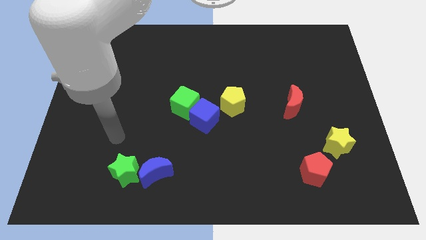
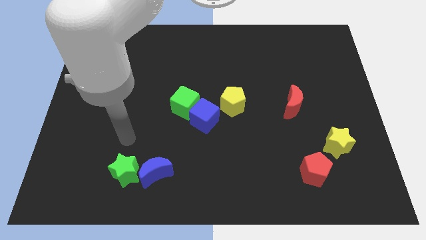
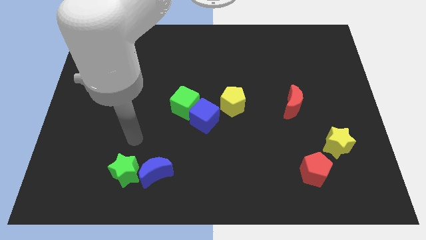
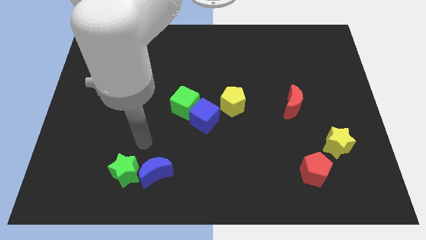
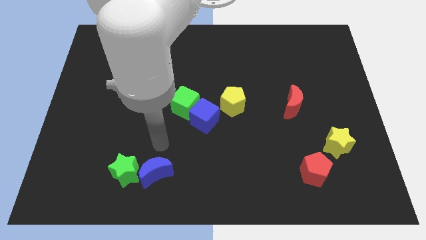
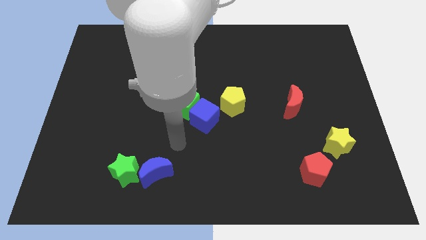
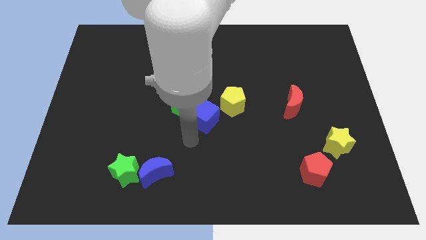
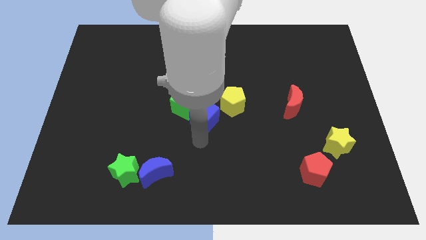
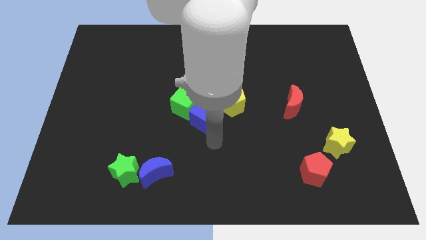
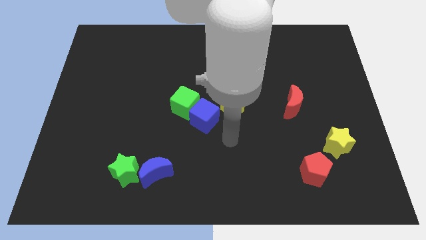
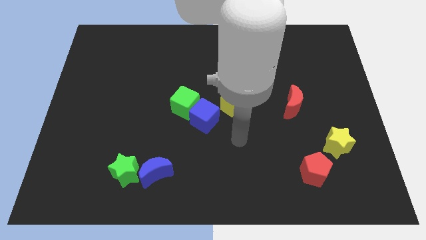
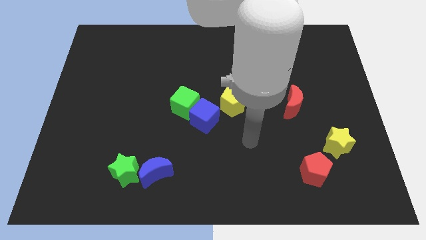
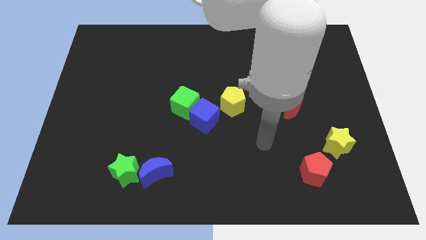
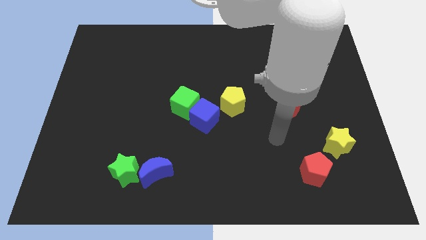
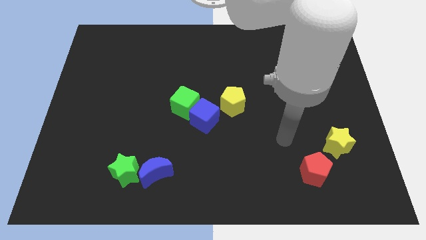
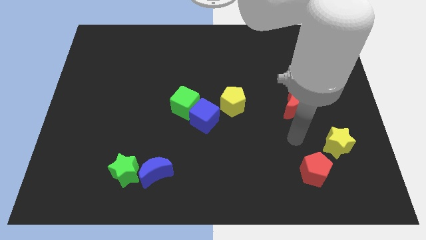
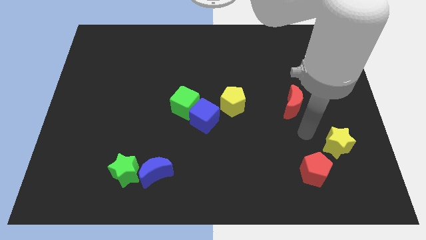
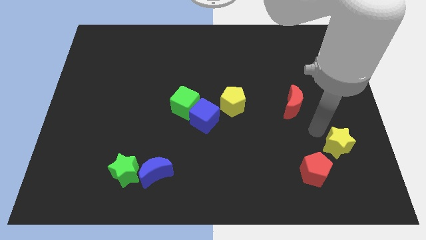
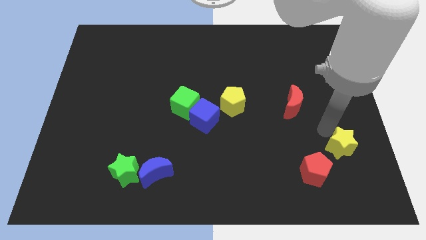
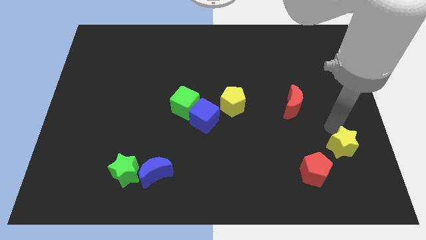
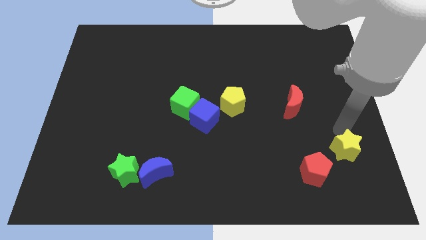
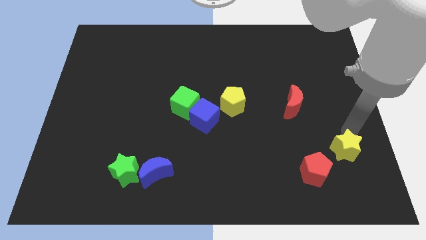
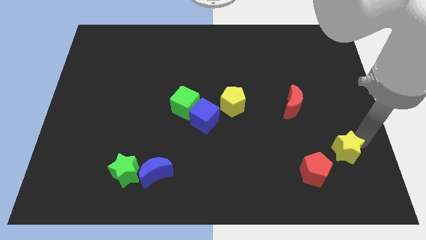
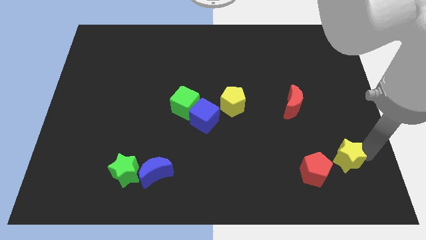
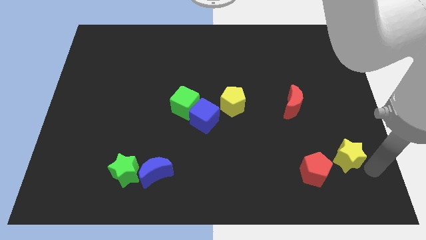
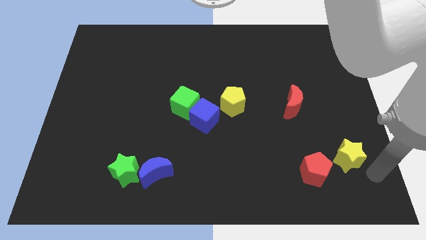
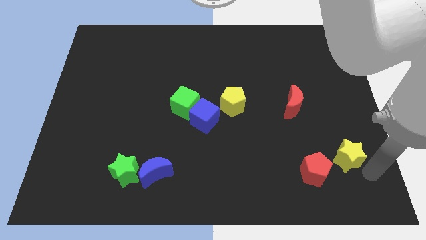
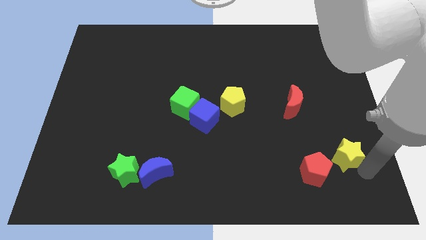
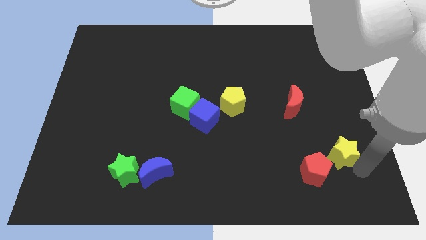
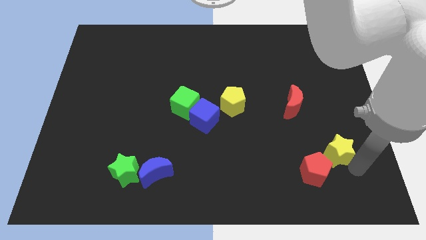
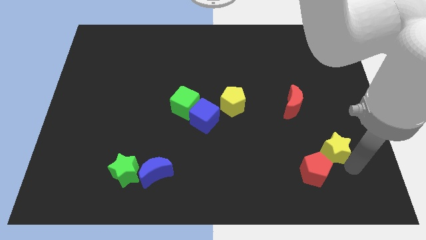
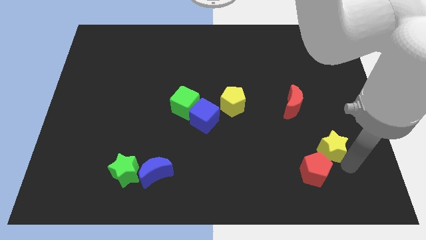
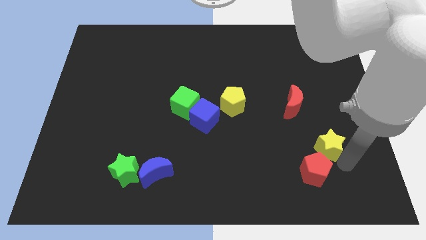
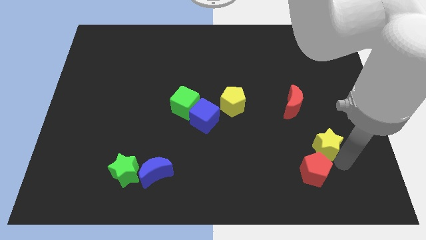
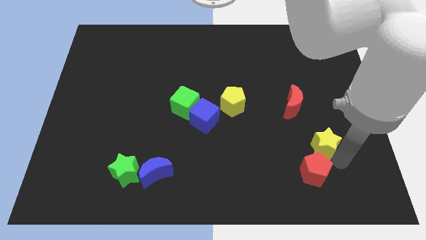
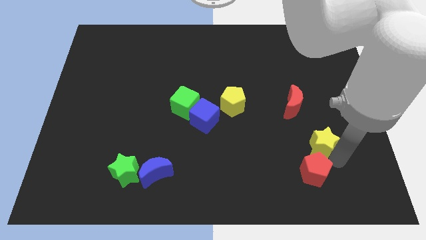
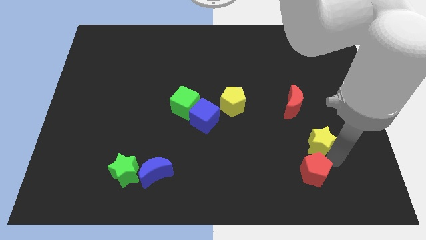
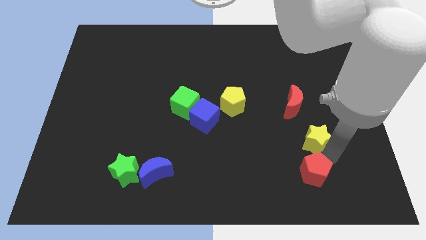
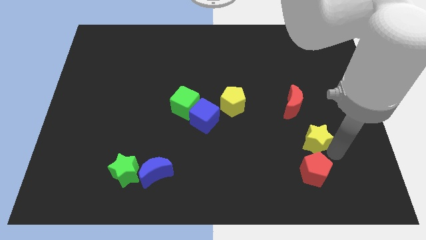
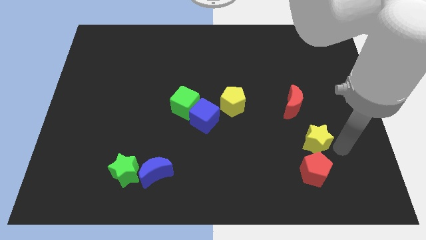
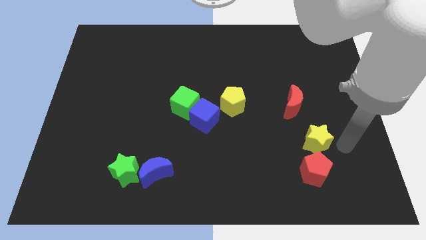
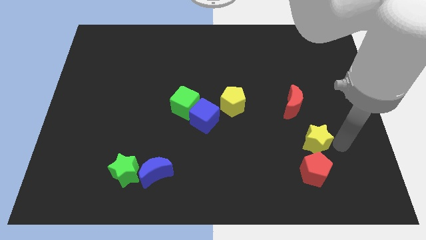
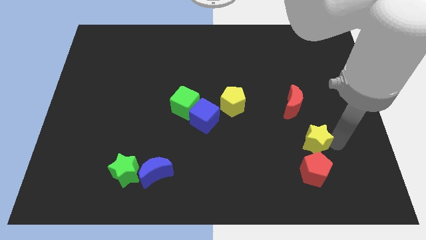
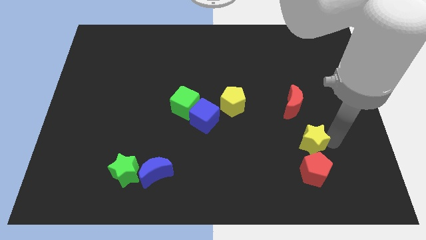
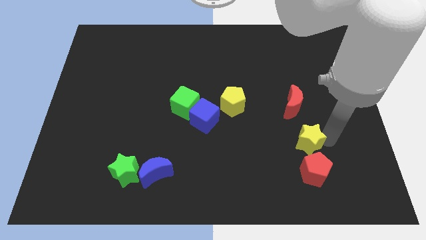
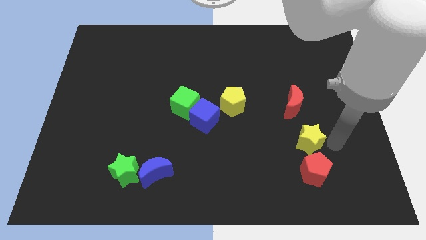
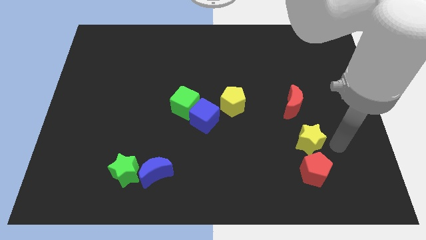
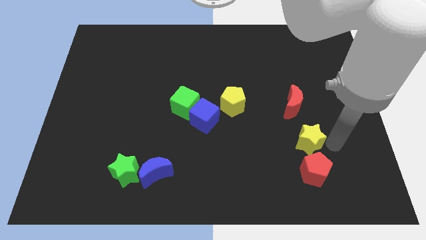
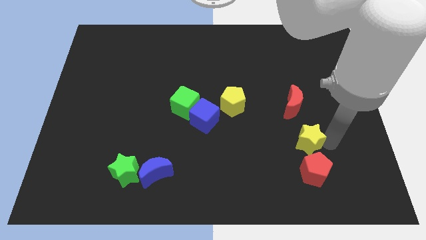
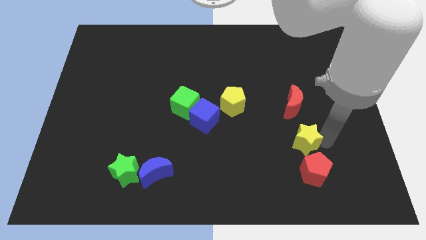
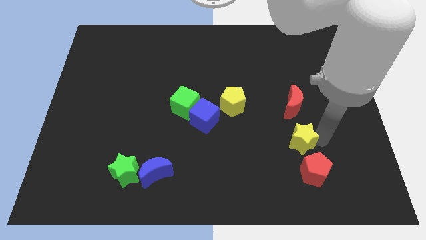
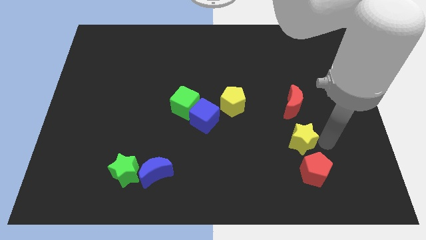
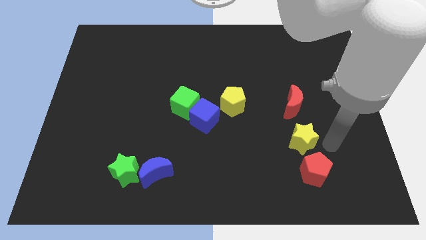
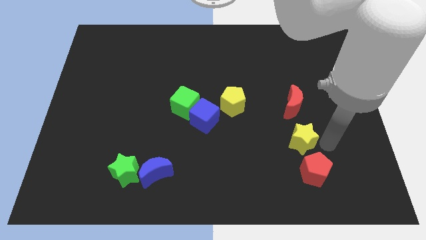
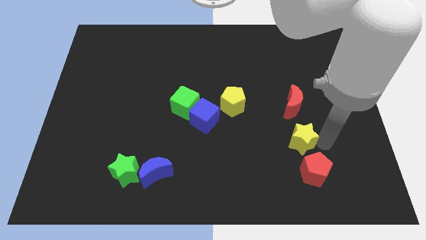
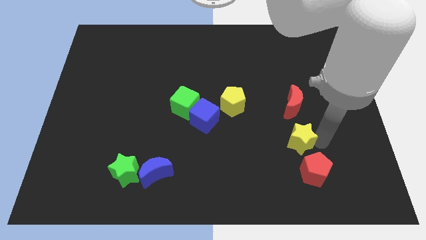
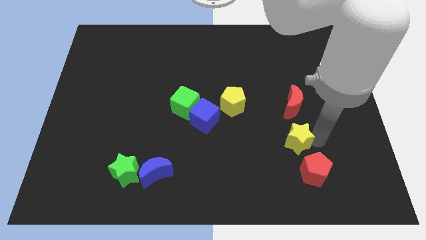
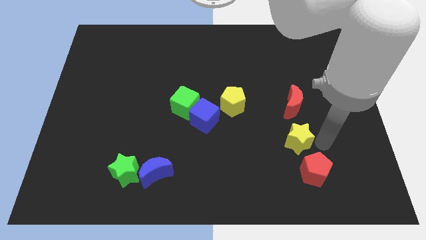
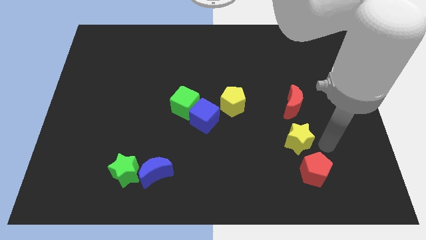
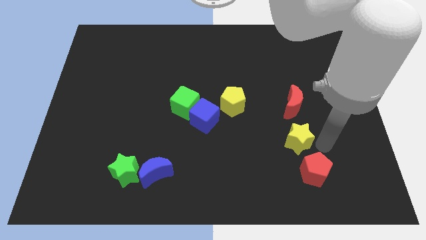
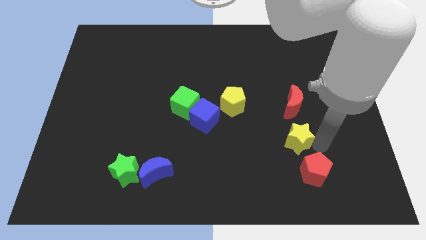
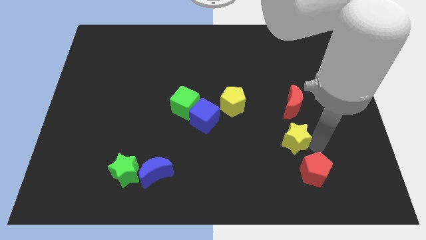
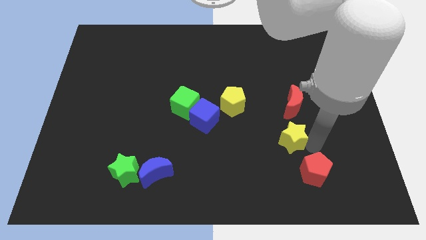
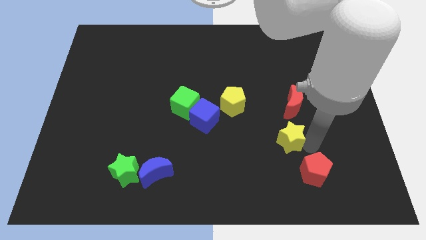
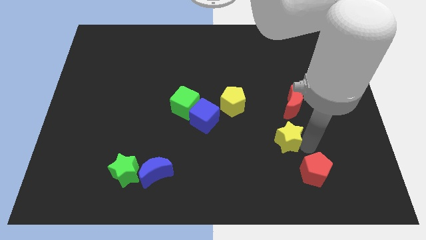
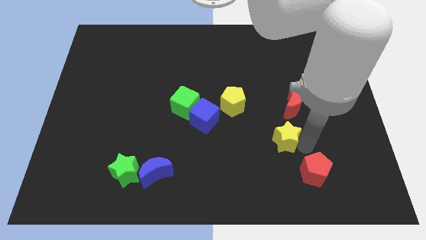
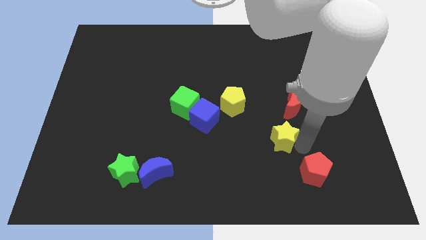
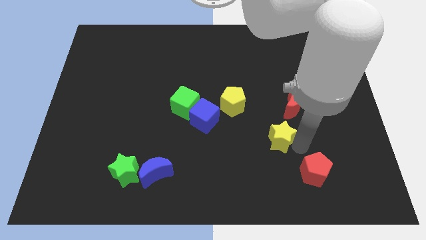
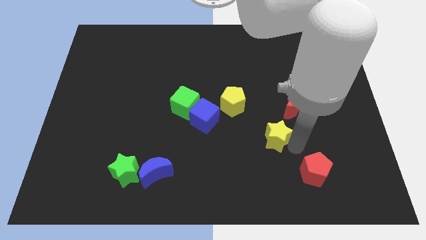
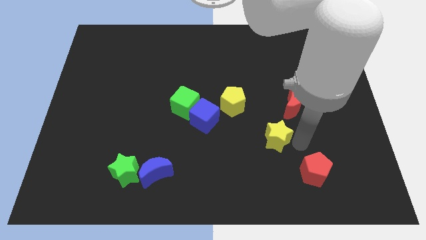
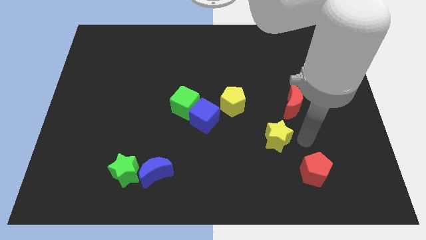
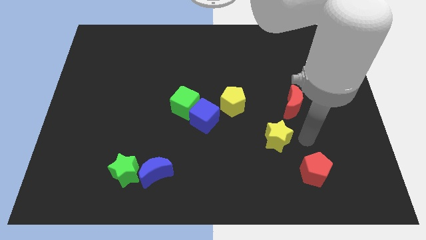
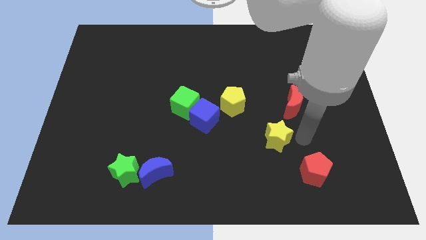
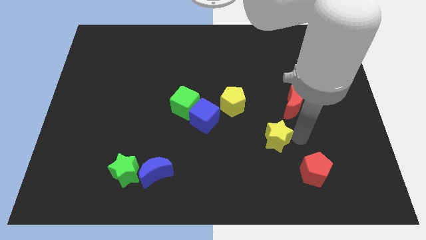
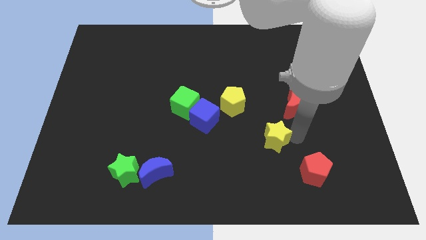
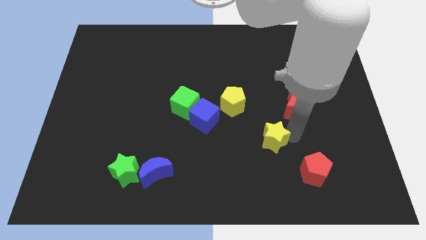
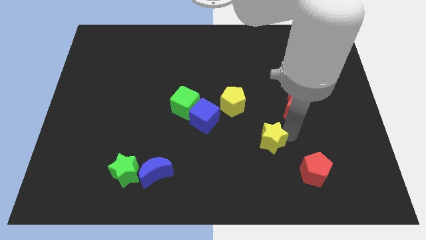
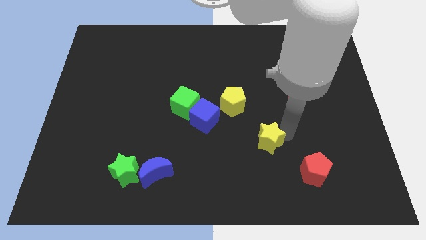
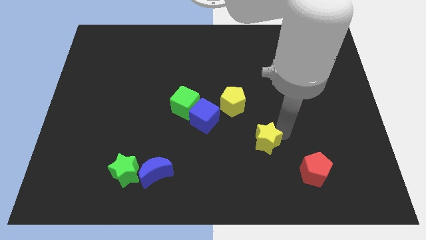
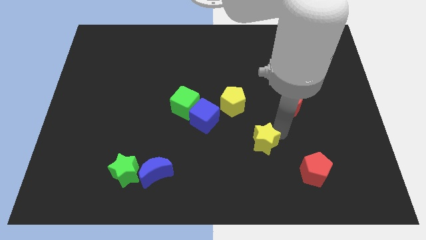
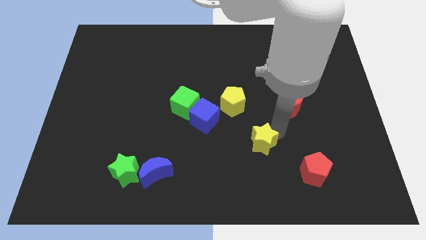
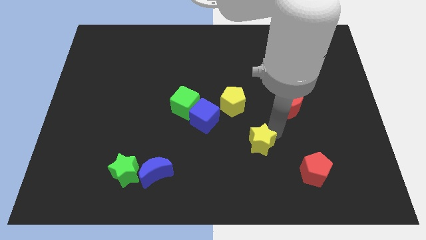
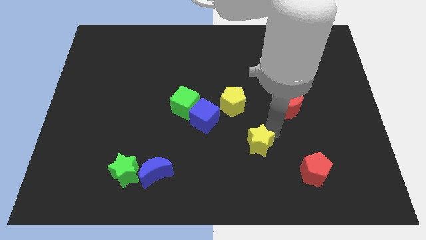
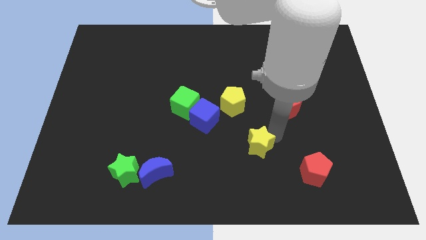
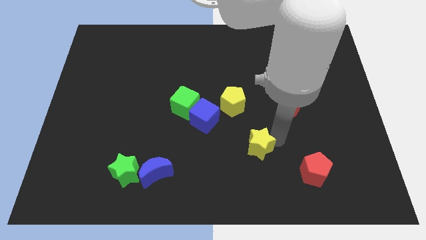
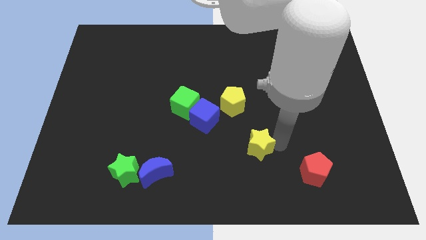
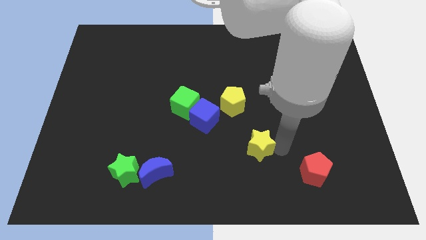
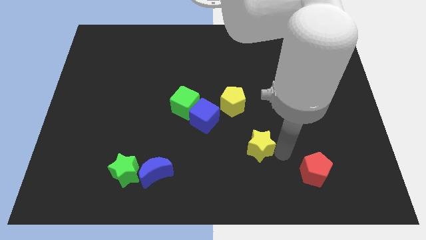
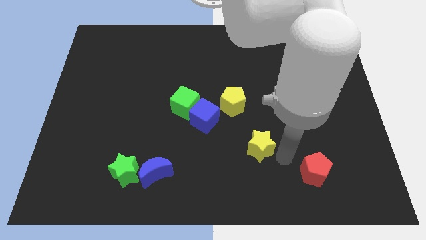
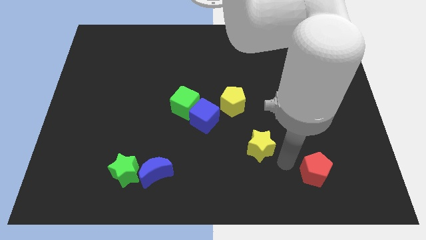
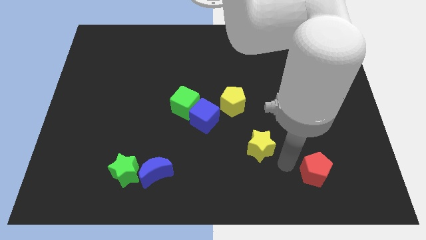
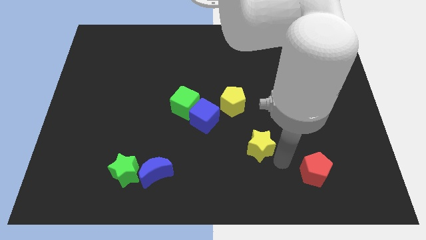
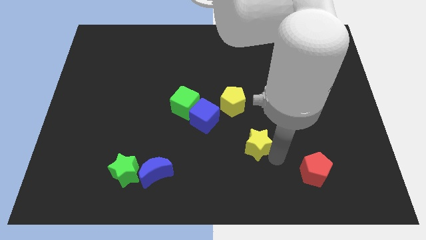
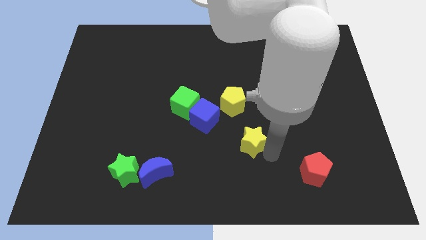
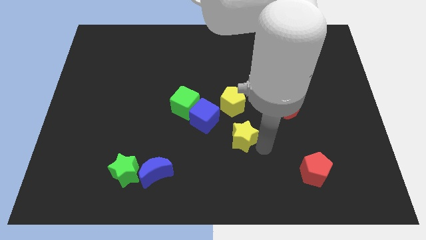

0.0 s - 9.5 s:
push the yellow star to the left
